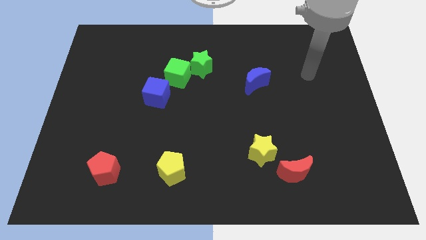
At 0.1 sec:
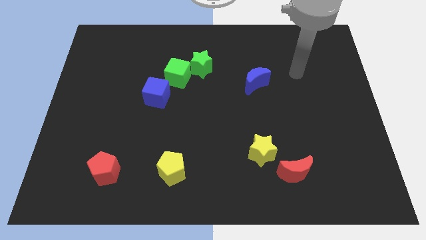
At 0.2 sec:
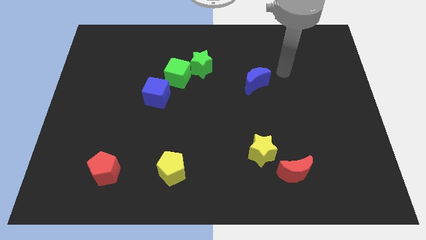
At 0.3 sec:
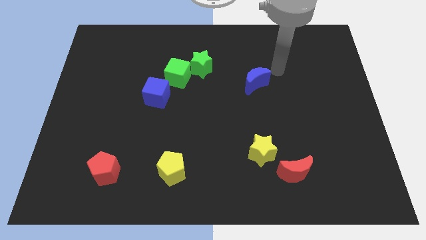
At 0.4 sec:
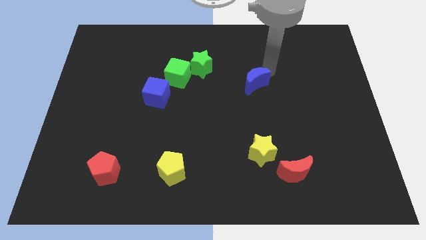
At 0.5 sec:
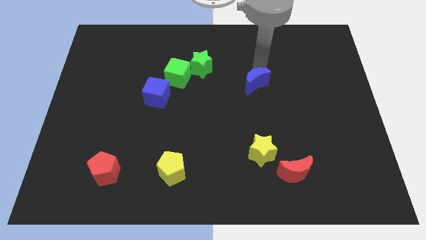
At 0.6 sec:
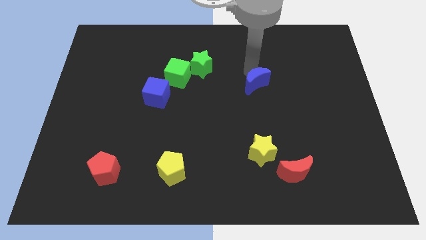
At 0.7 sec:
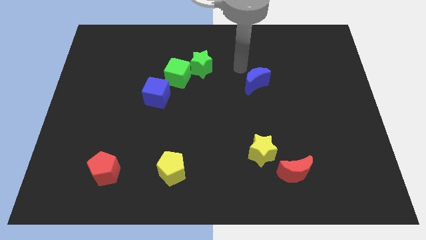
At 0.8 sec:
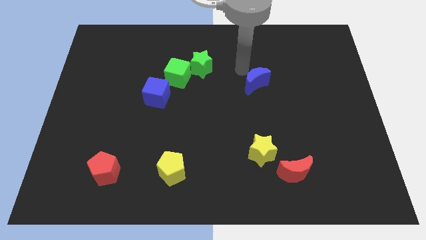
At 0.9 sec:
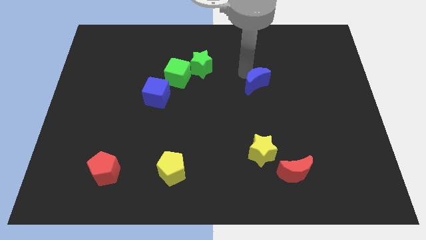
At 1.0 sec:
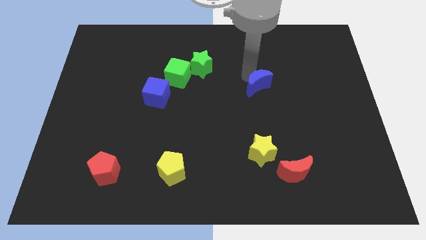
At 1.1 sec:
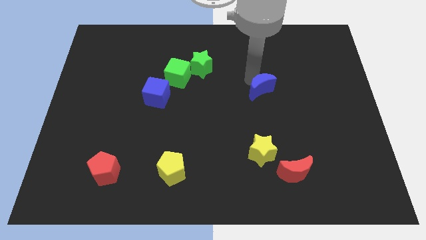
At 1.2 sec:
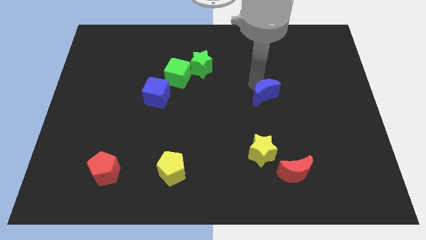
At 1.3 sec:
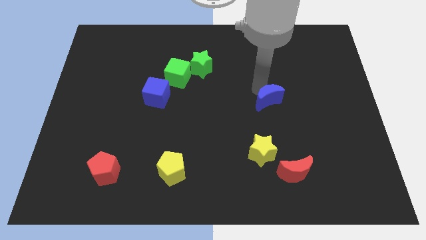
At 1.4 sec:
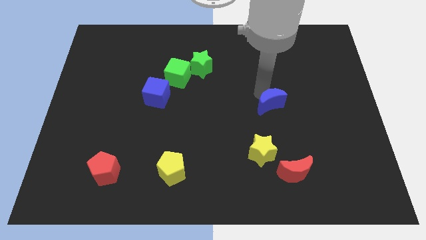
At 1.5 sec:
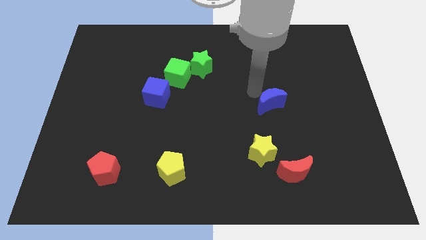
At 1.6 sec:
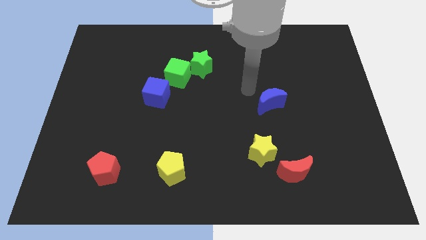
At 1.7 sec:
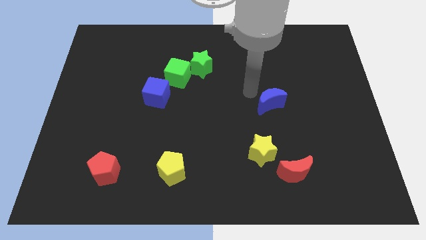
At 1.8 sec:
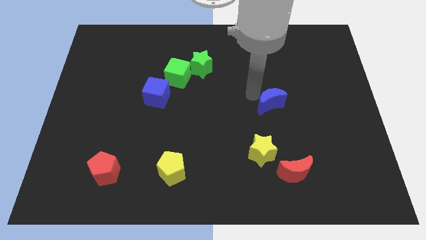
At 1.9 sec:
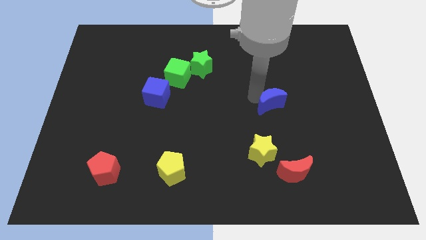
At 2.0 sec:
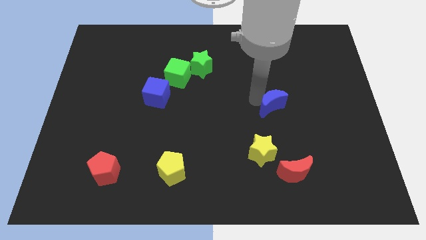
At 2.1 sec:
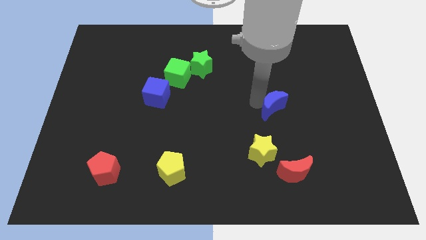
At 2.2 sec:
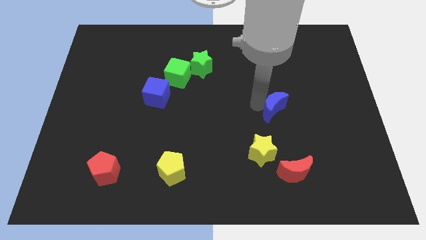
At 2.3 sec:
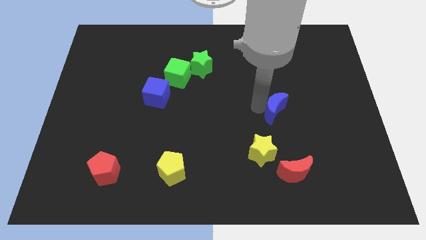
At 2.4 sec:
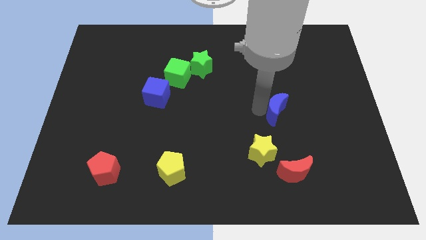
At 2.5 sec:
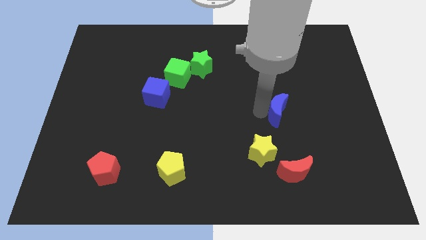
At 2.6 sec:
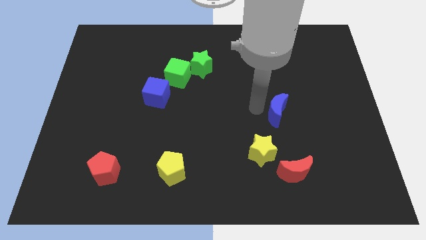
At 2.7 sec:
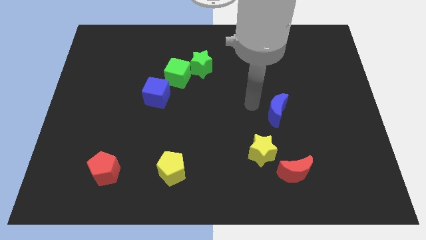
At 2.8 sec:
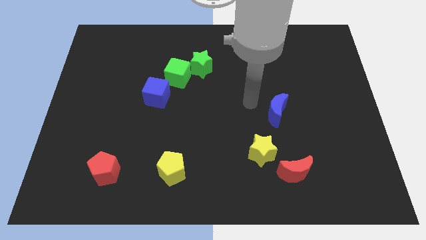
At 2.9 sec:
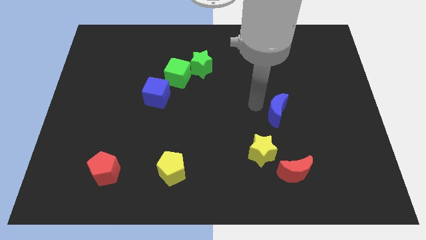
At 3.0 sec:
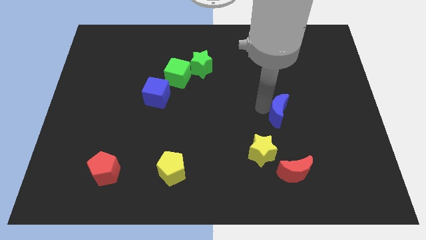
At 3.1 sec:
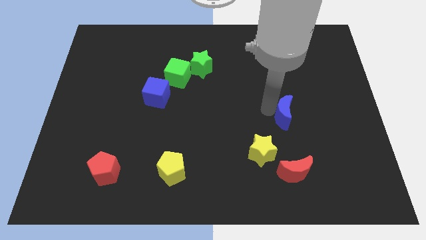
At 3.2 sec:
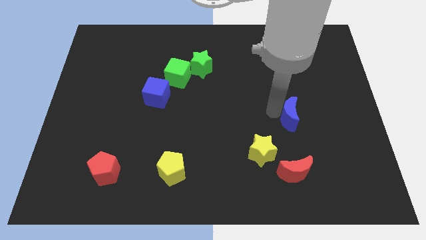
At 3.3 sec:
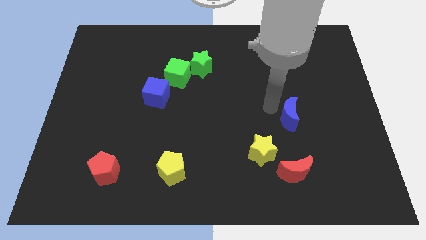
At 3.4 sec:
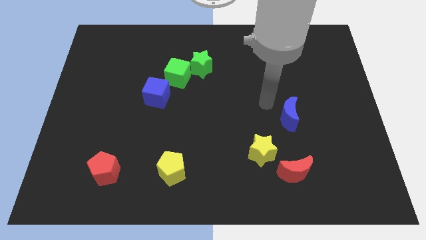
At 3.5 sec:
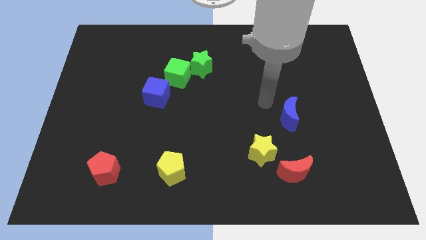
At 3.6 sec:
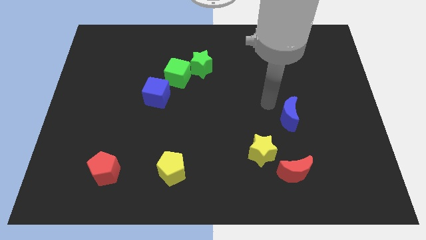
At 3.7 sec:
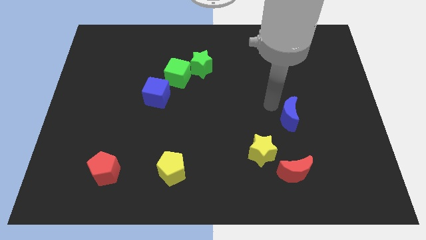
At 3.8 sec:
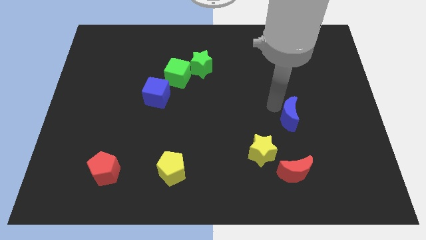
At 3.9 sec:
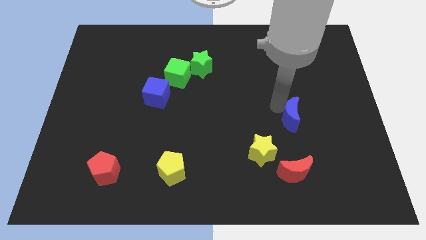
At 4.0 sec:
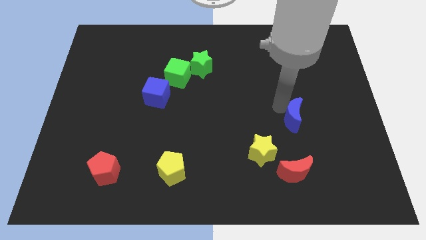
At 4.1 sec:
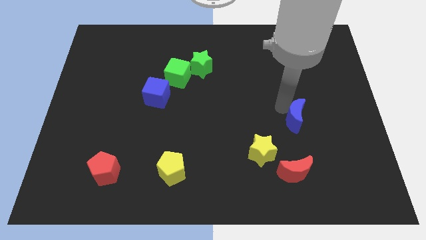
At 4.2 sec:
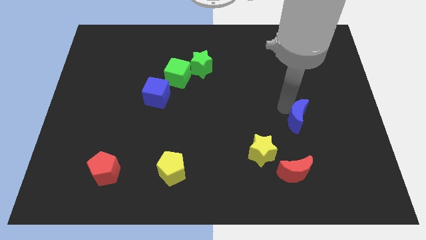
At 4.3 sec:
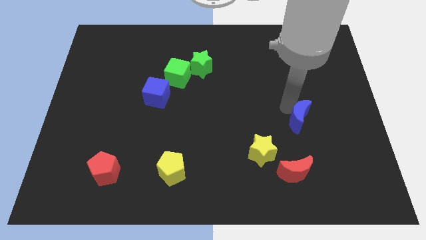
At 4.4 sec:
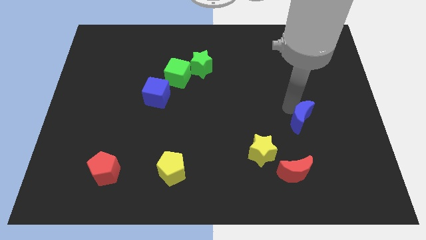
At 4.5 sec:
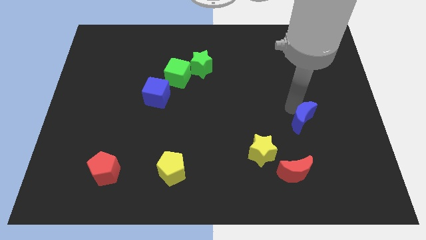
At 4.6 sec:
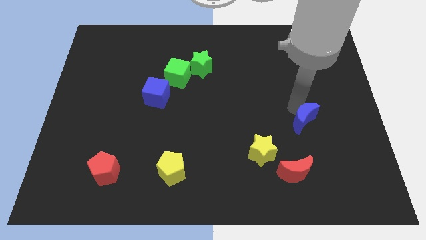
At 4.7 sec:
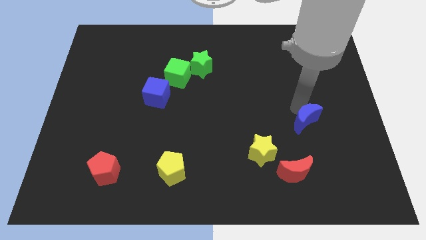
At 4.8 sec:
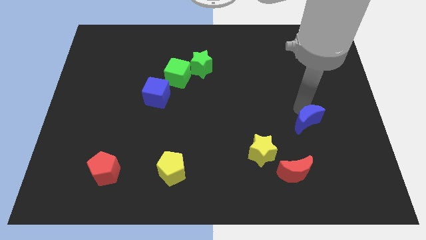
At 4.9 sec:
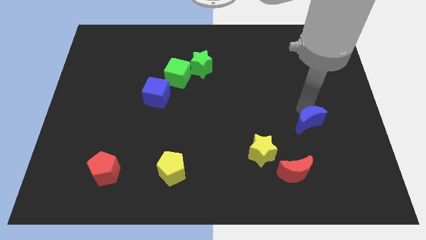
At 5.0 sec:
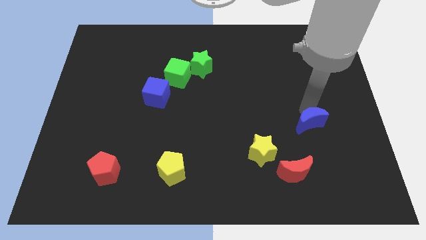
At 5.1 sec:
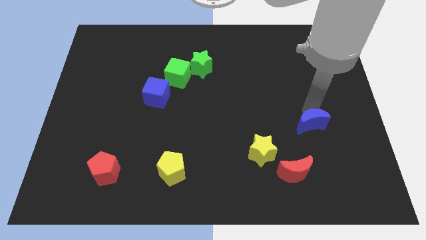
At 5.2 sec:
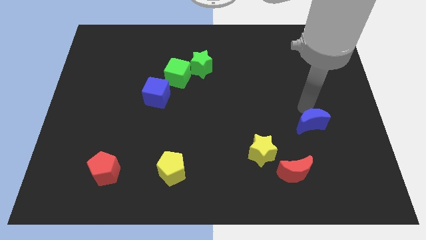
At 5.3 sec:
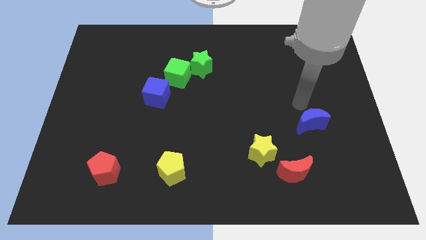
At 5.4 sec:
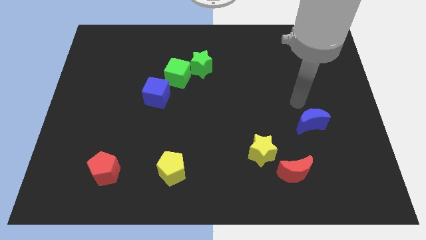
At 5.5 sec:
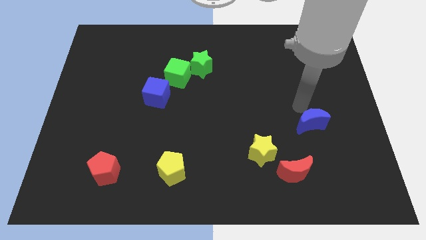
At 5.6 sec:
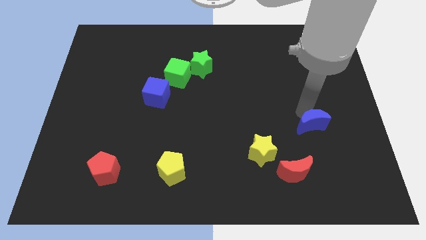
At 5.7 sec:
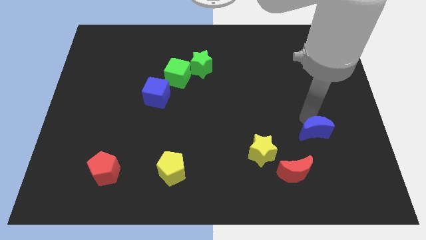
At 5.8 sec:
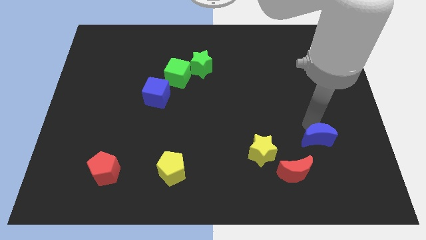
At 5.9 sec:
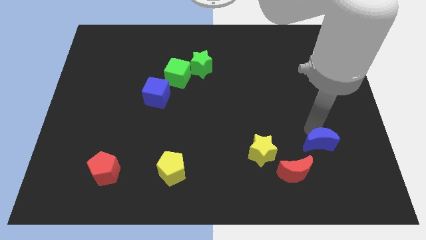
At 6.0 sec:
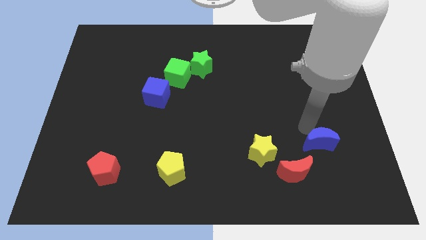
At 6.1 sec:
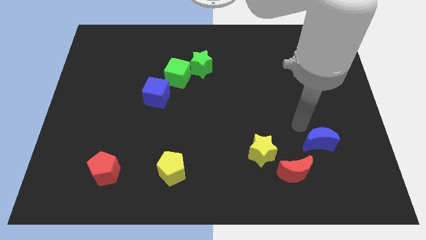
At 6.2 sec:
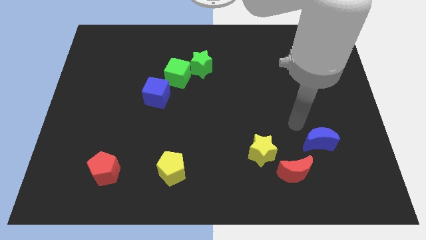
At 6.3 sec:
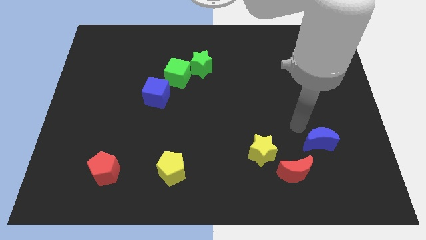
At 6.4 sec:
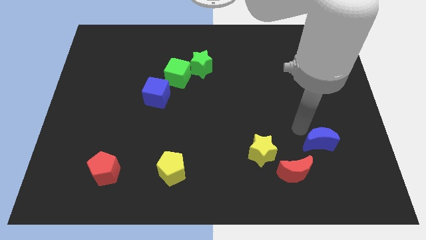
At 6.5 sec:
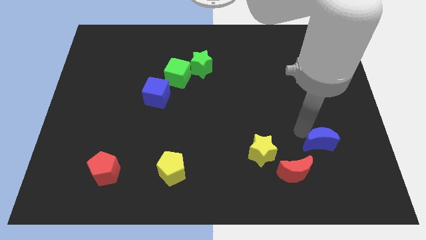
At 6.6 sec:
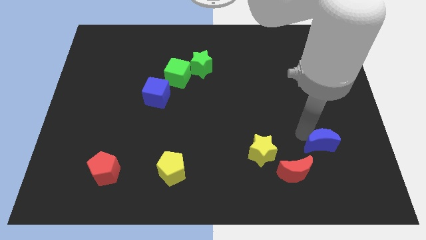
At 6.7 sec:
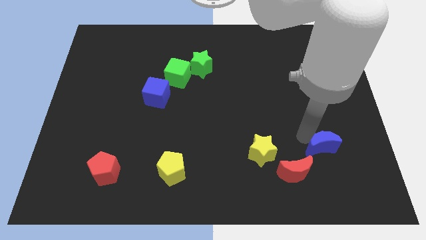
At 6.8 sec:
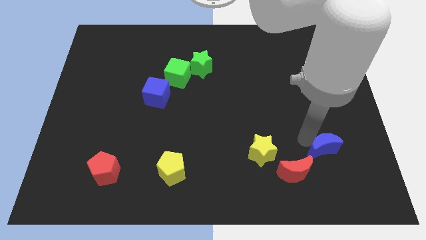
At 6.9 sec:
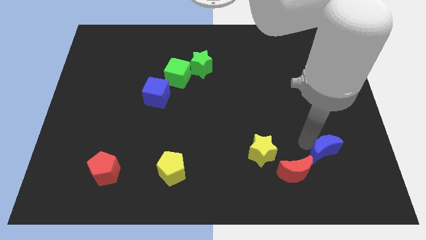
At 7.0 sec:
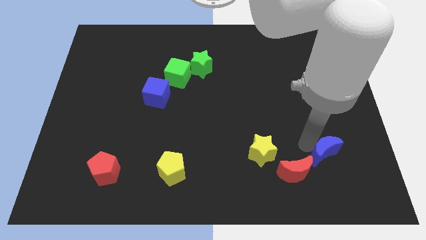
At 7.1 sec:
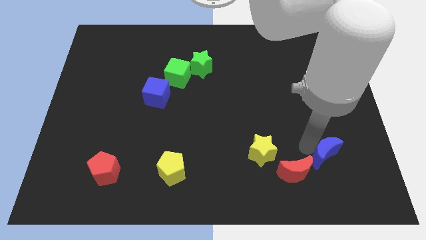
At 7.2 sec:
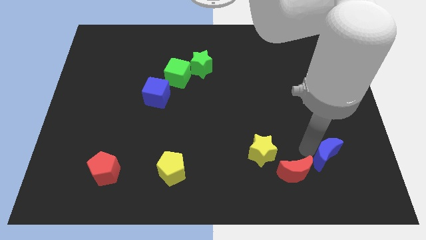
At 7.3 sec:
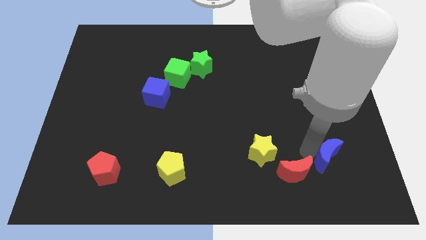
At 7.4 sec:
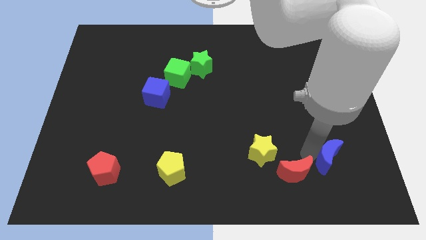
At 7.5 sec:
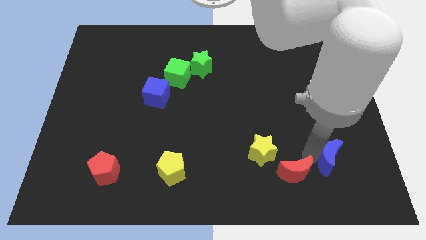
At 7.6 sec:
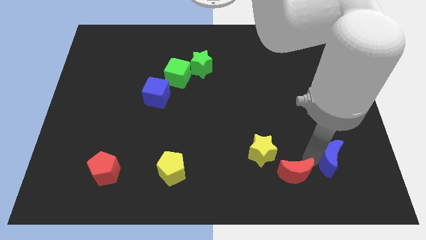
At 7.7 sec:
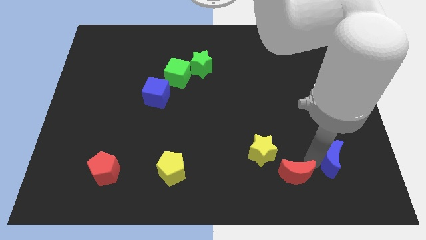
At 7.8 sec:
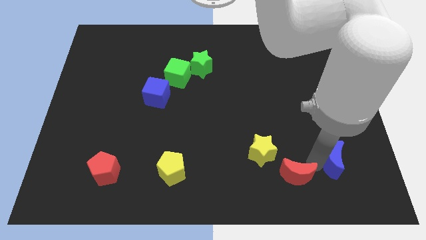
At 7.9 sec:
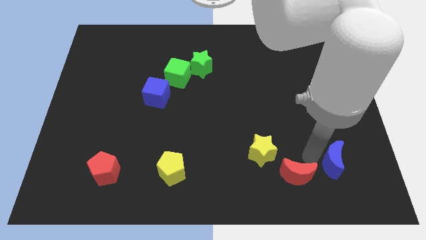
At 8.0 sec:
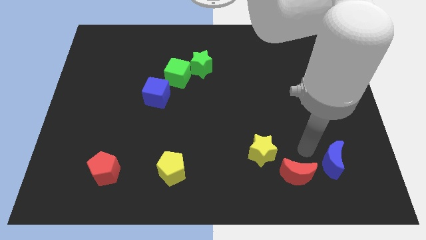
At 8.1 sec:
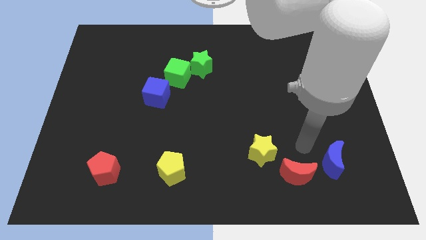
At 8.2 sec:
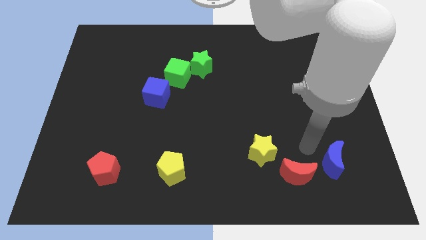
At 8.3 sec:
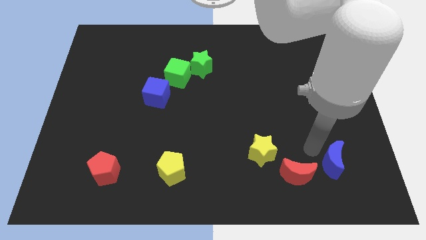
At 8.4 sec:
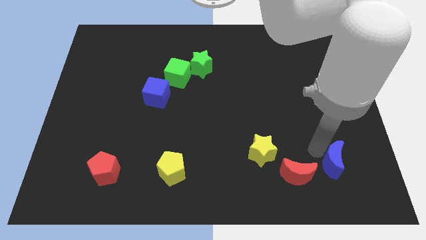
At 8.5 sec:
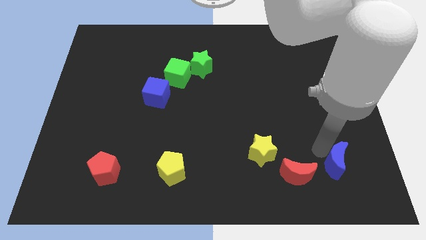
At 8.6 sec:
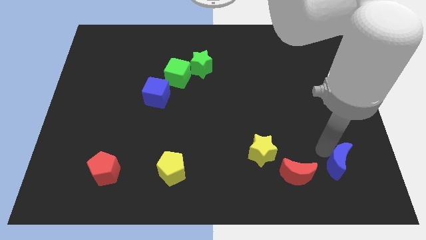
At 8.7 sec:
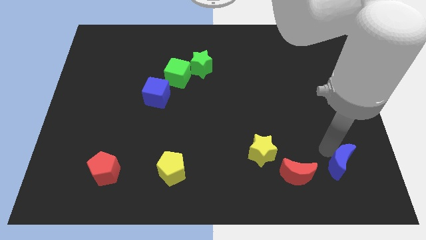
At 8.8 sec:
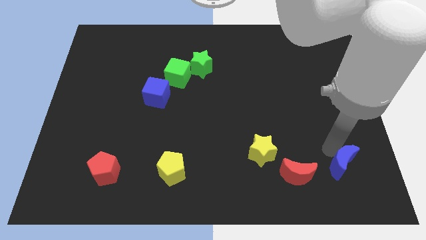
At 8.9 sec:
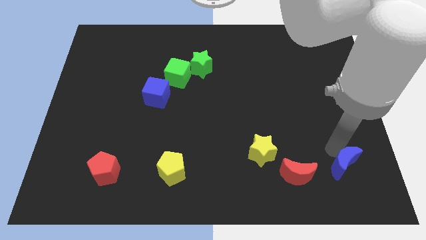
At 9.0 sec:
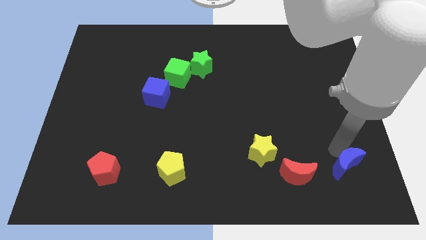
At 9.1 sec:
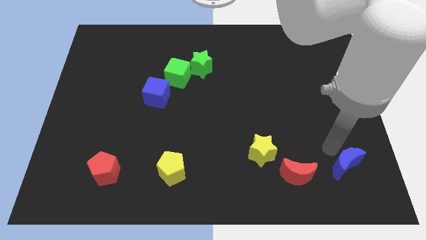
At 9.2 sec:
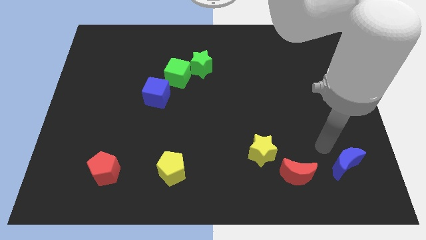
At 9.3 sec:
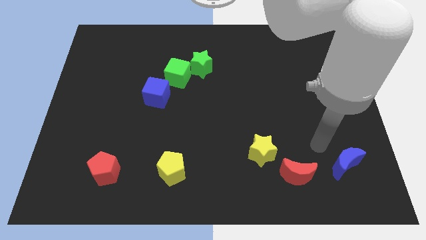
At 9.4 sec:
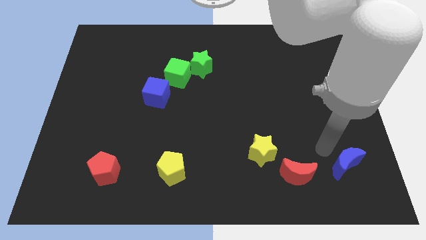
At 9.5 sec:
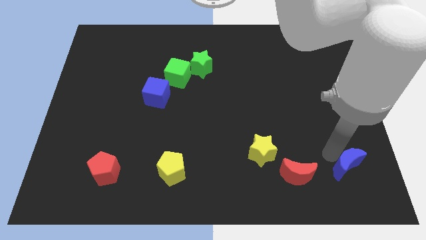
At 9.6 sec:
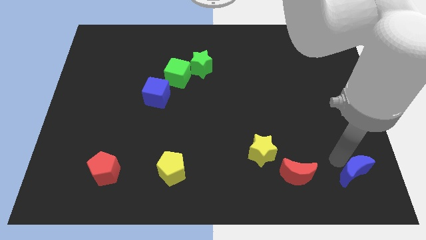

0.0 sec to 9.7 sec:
slide the blue moon to the bottom right corner
